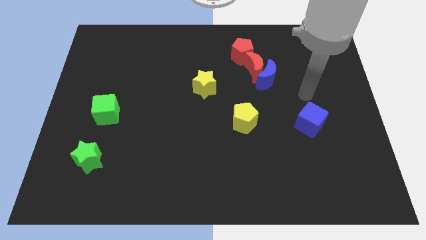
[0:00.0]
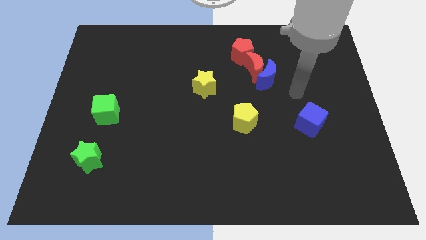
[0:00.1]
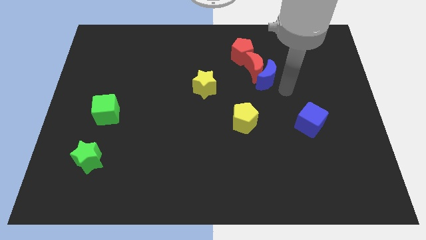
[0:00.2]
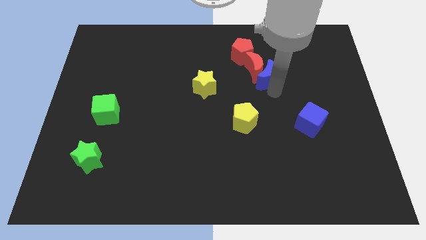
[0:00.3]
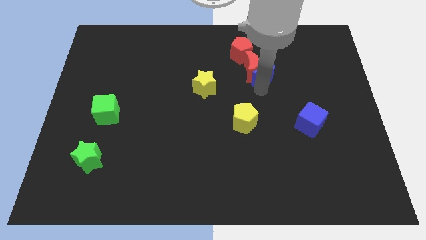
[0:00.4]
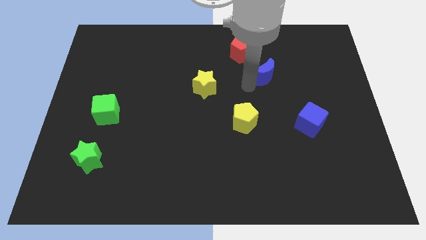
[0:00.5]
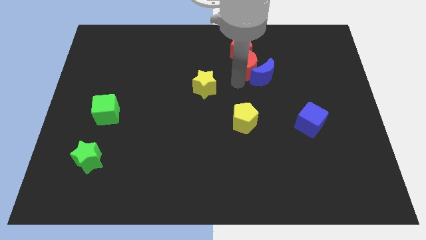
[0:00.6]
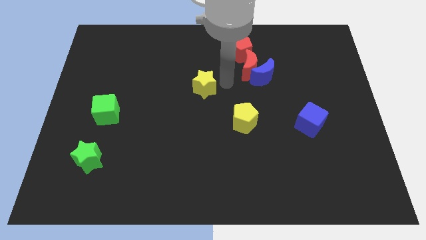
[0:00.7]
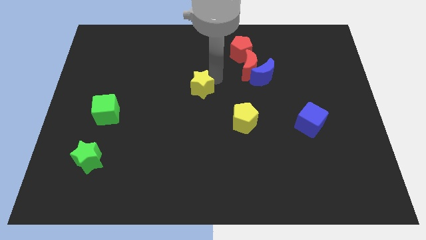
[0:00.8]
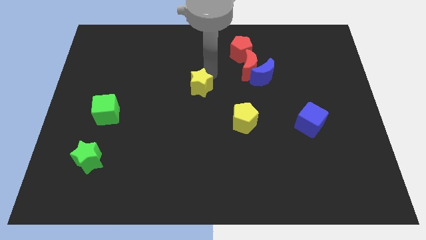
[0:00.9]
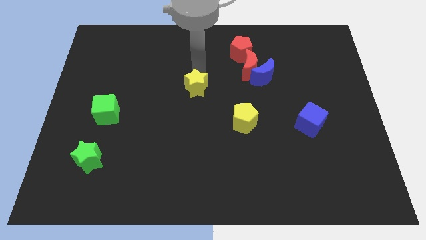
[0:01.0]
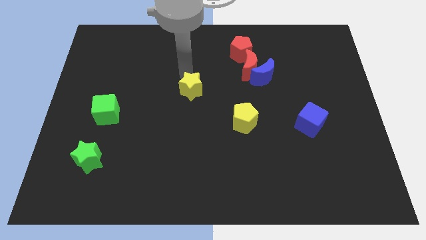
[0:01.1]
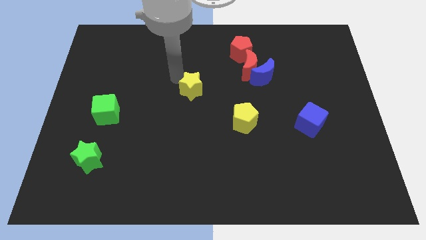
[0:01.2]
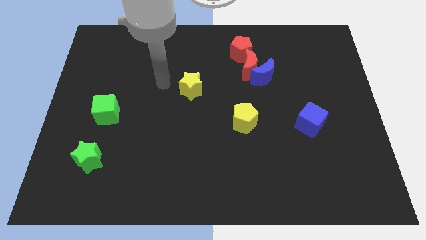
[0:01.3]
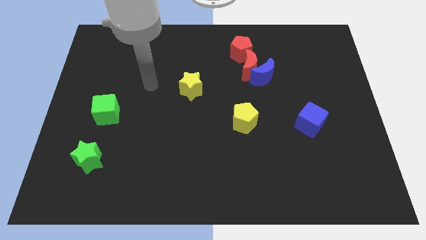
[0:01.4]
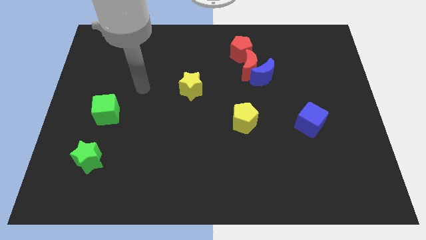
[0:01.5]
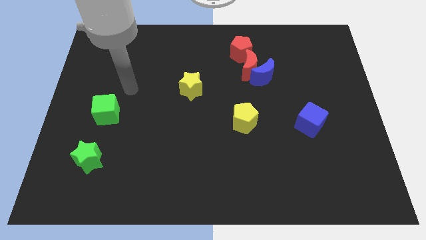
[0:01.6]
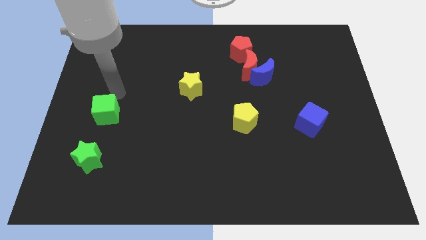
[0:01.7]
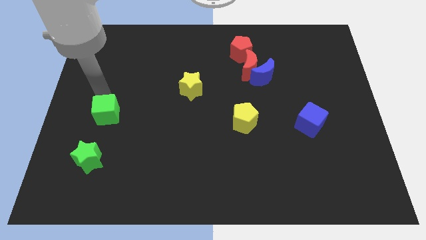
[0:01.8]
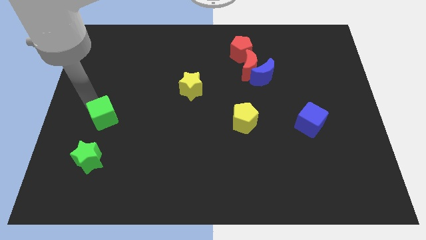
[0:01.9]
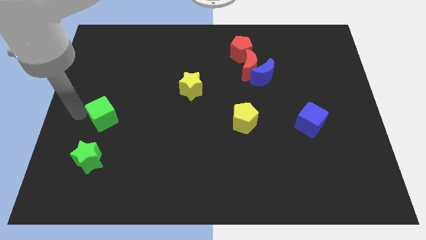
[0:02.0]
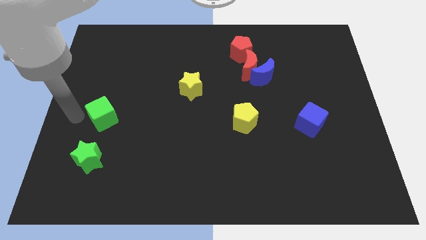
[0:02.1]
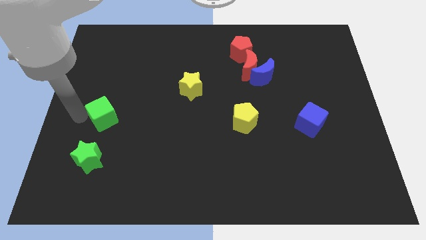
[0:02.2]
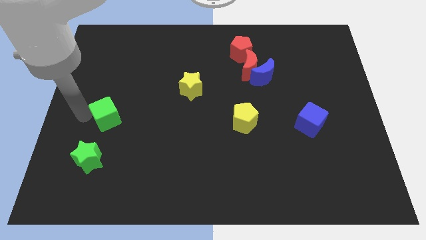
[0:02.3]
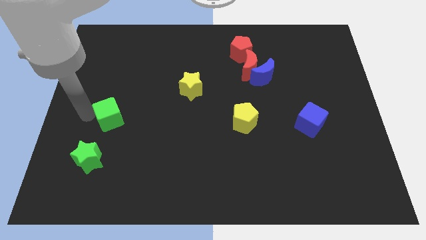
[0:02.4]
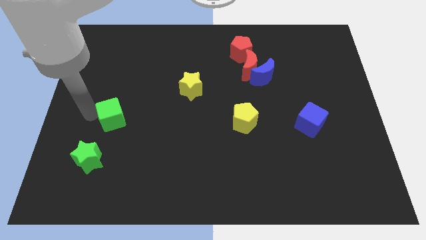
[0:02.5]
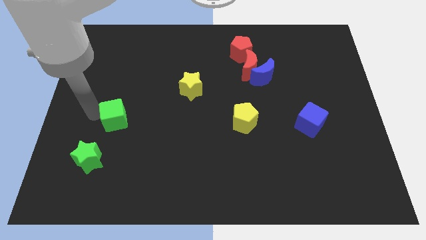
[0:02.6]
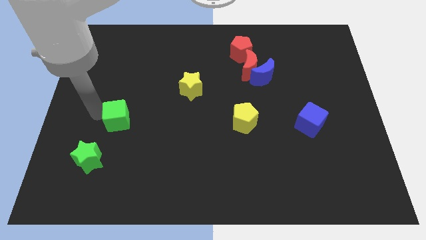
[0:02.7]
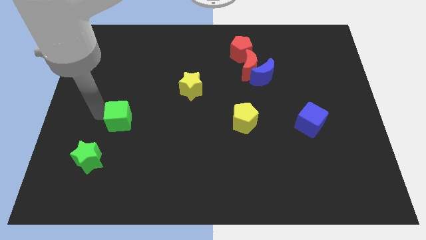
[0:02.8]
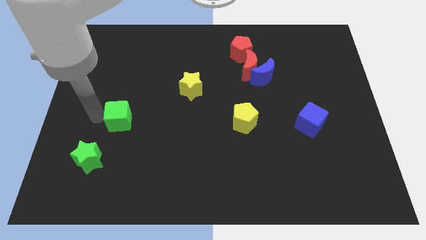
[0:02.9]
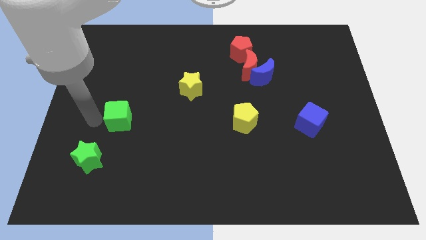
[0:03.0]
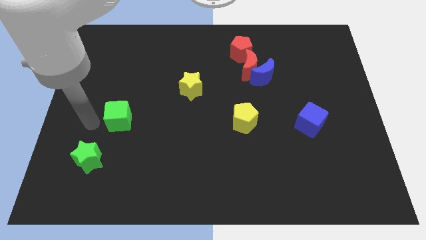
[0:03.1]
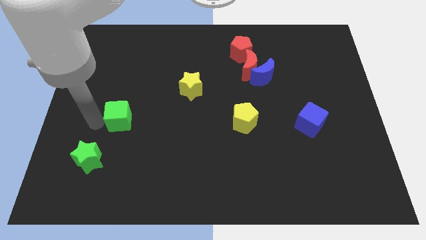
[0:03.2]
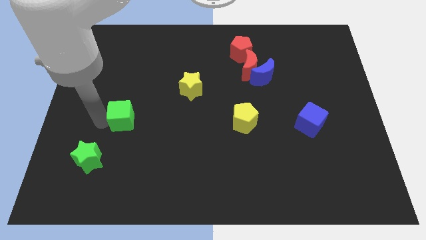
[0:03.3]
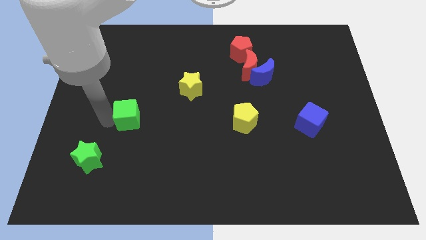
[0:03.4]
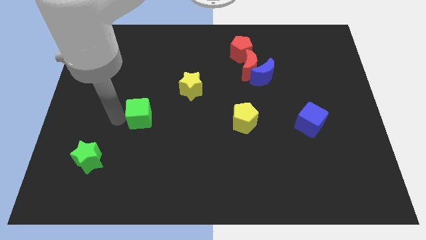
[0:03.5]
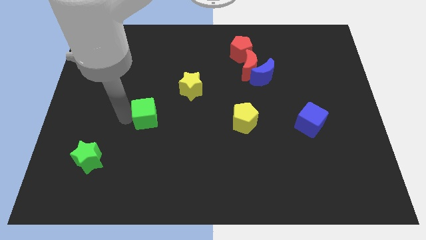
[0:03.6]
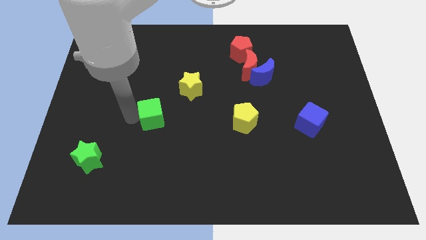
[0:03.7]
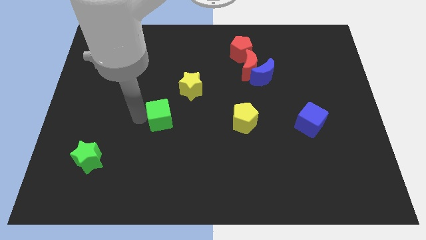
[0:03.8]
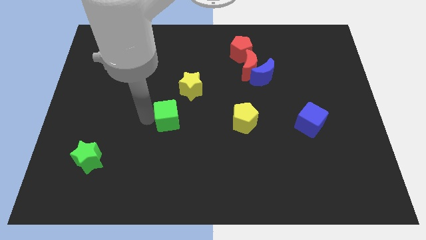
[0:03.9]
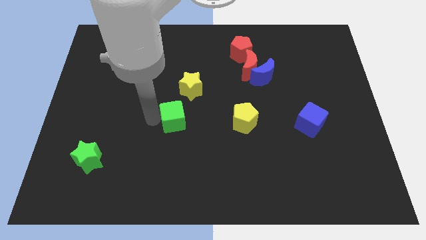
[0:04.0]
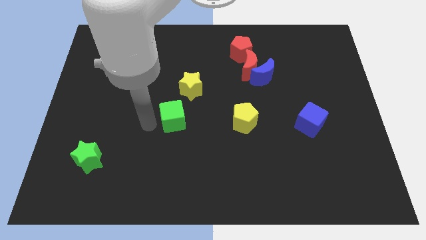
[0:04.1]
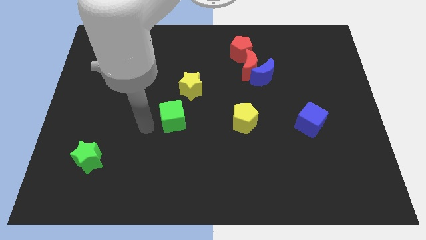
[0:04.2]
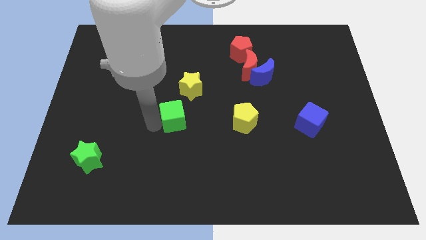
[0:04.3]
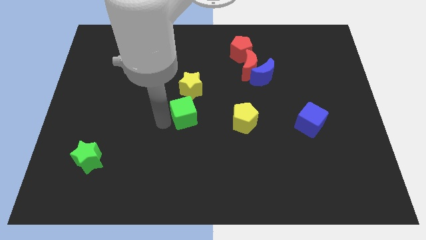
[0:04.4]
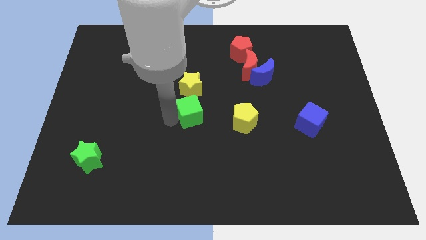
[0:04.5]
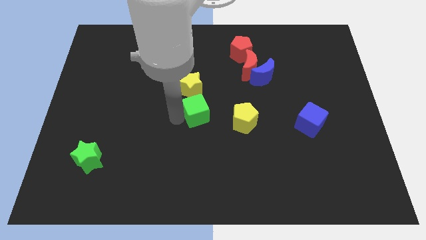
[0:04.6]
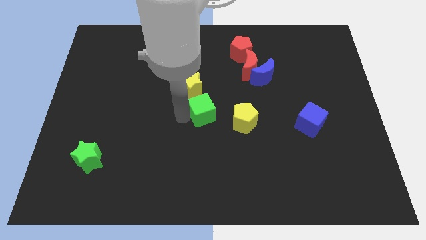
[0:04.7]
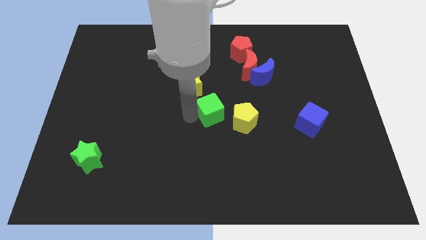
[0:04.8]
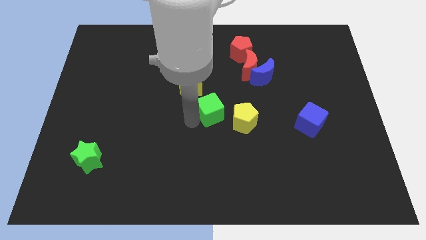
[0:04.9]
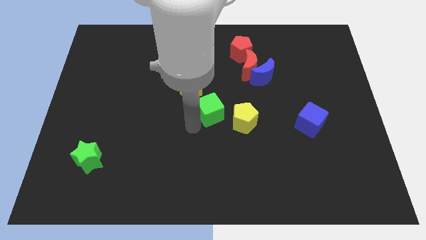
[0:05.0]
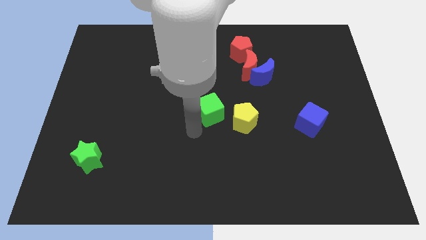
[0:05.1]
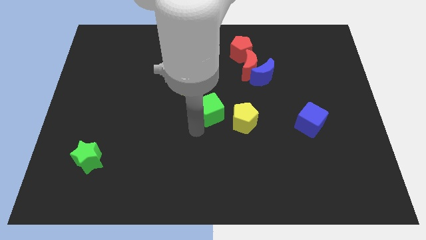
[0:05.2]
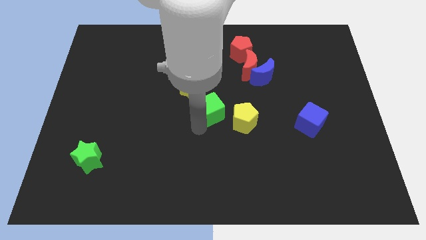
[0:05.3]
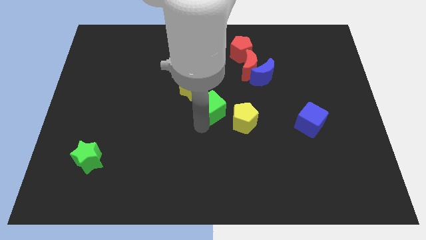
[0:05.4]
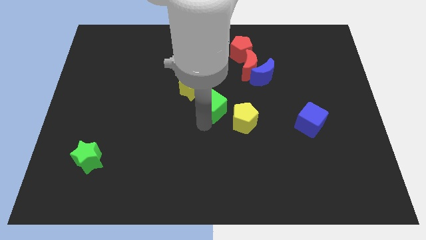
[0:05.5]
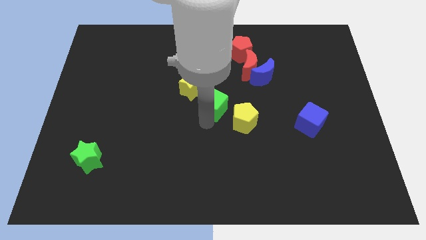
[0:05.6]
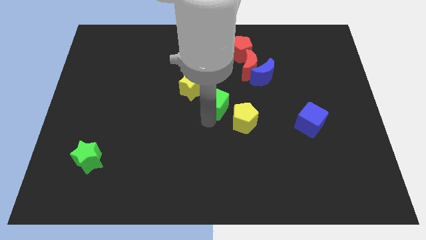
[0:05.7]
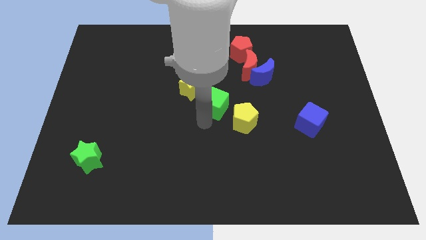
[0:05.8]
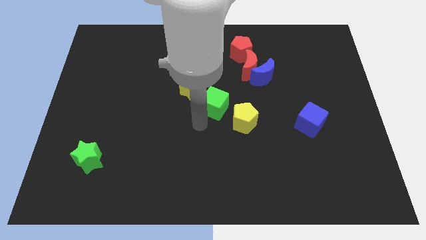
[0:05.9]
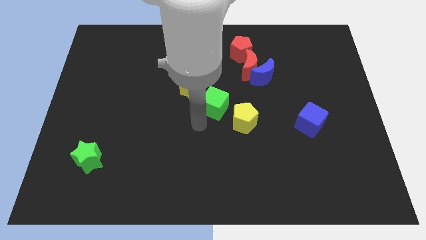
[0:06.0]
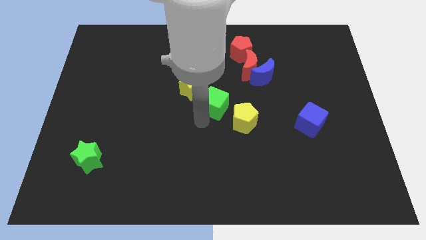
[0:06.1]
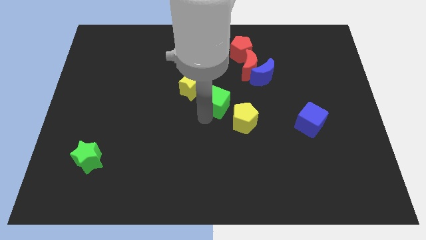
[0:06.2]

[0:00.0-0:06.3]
put the green cube to the right side of the yellow star

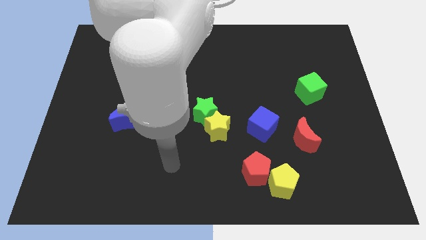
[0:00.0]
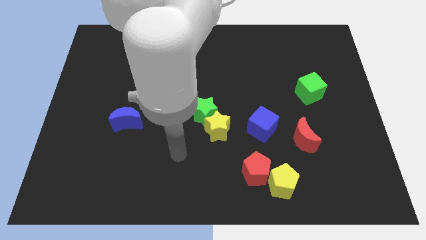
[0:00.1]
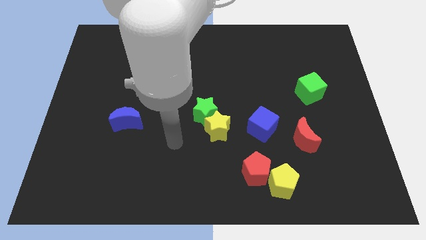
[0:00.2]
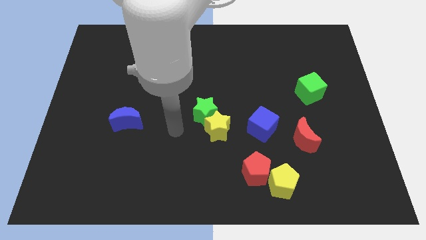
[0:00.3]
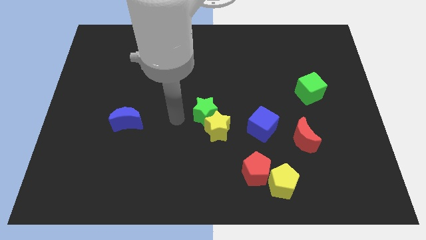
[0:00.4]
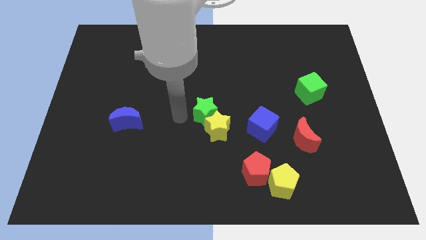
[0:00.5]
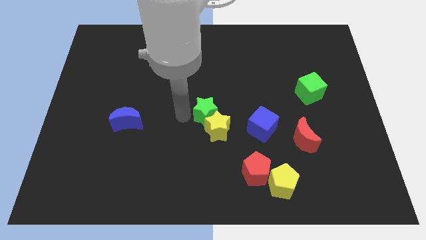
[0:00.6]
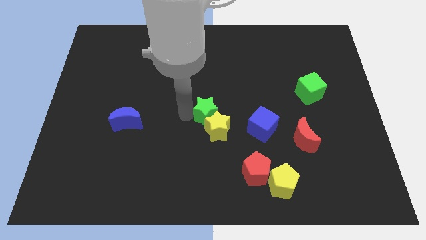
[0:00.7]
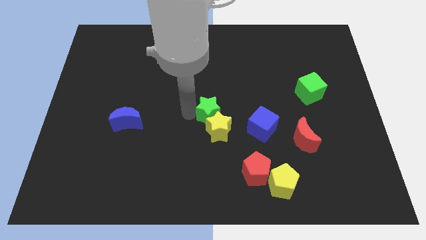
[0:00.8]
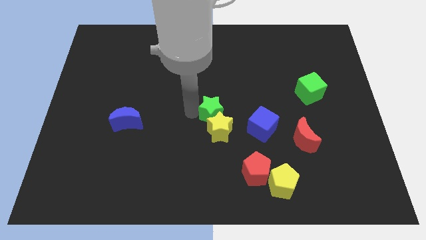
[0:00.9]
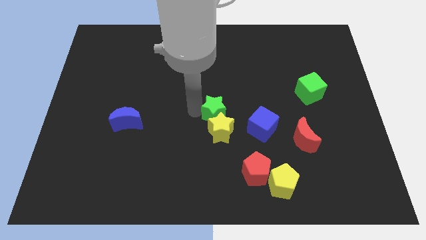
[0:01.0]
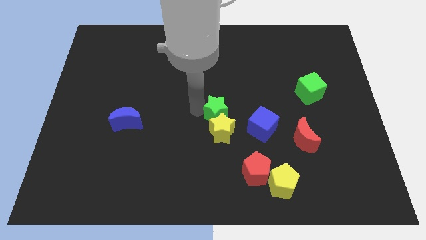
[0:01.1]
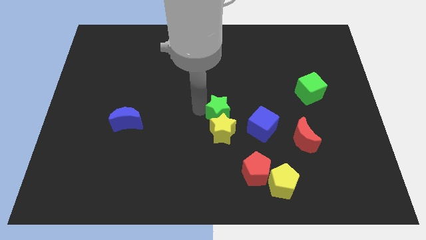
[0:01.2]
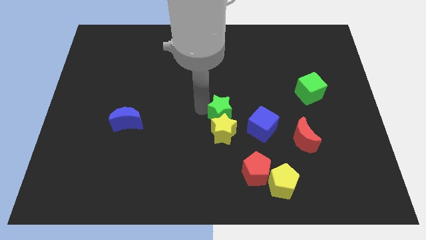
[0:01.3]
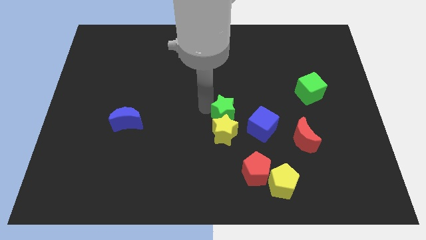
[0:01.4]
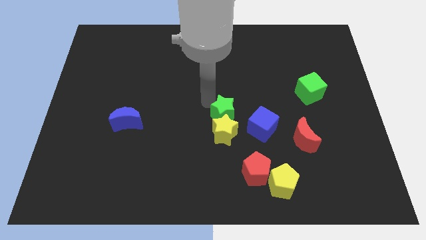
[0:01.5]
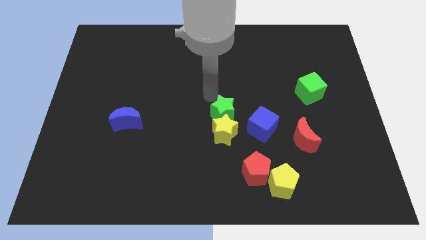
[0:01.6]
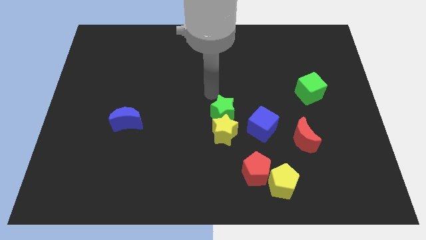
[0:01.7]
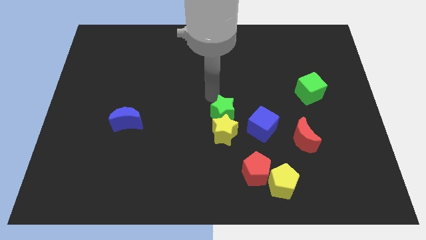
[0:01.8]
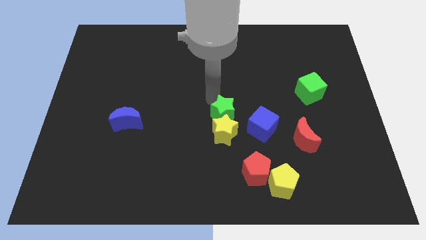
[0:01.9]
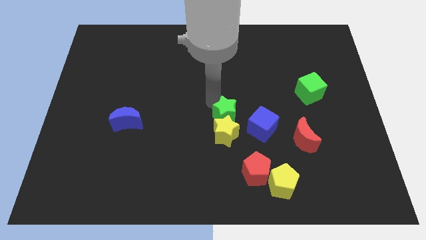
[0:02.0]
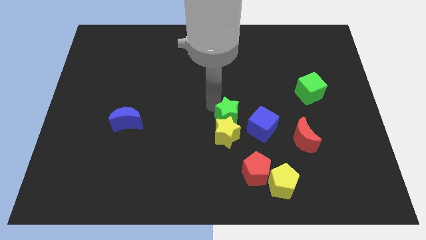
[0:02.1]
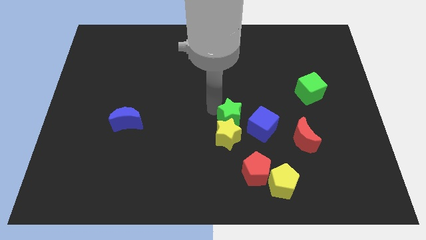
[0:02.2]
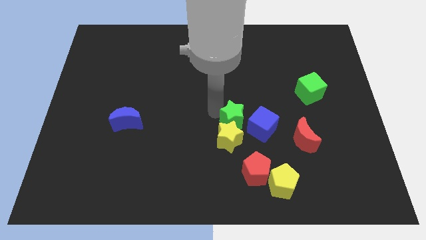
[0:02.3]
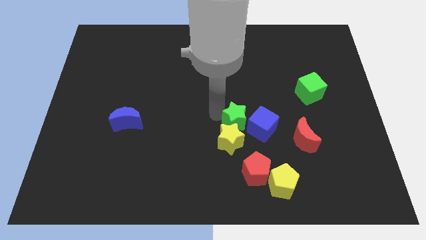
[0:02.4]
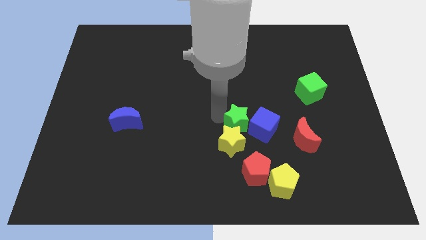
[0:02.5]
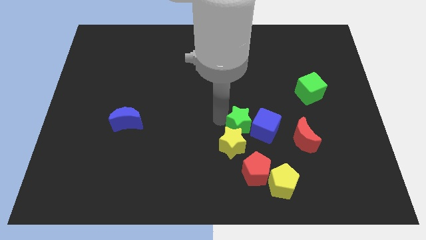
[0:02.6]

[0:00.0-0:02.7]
slide the green star to the bottom left of the blue cube
